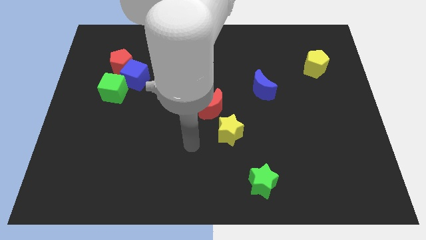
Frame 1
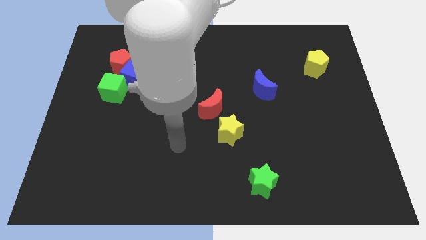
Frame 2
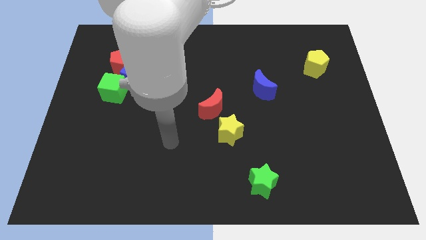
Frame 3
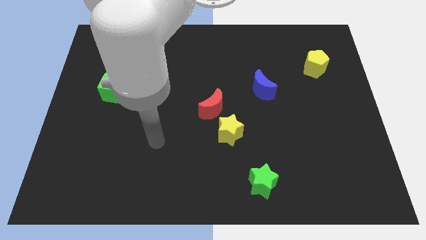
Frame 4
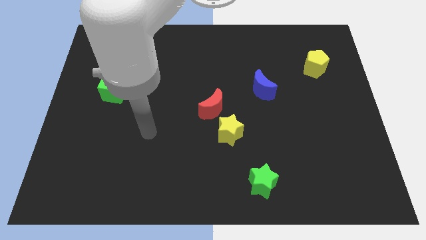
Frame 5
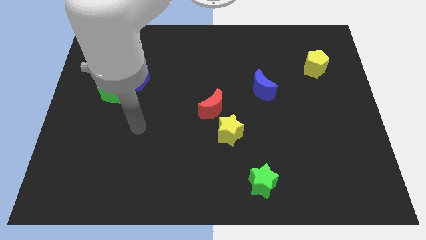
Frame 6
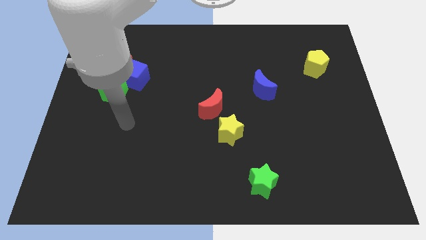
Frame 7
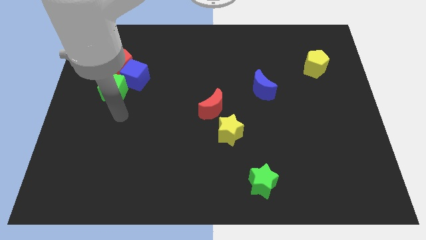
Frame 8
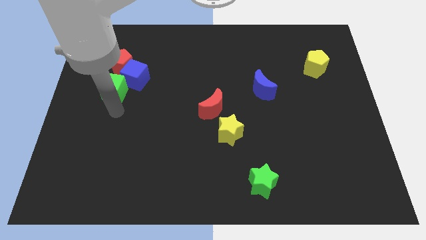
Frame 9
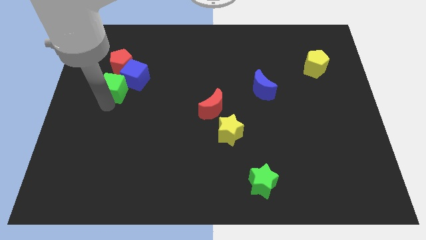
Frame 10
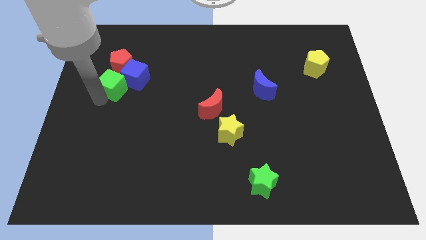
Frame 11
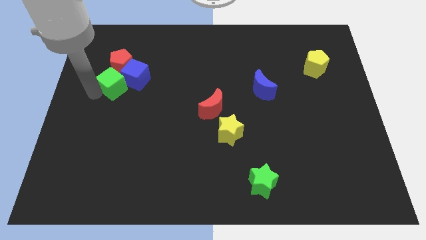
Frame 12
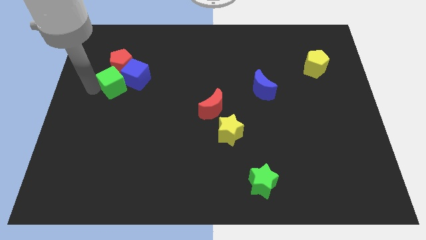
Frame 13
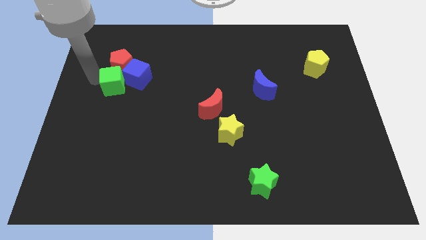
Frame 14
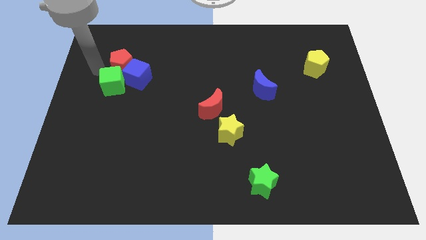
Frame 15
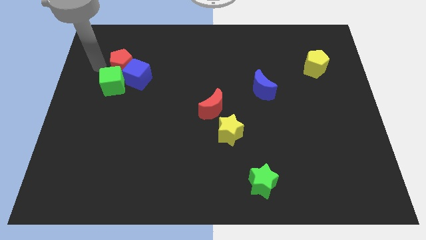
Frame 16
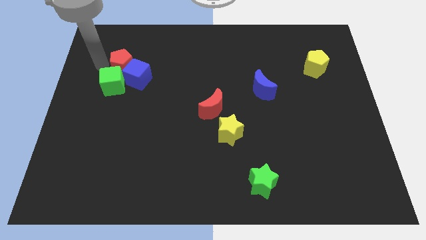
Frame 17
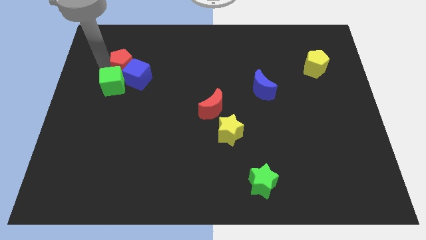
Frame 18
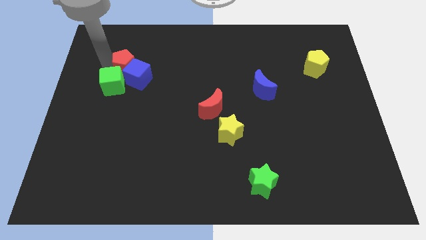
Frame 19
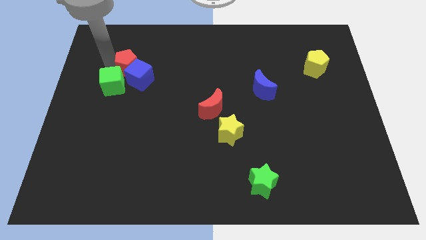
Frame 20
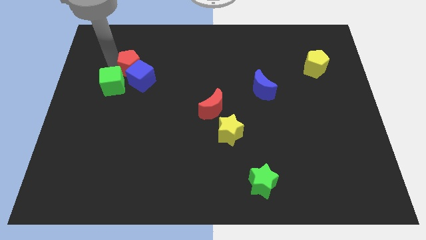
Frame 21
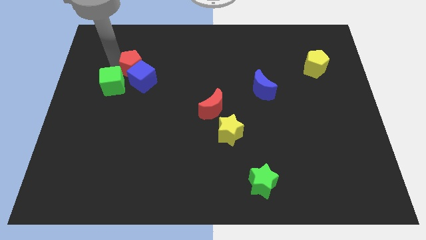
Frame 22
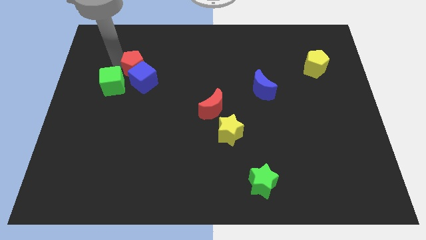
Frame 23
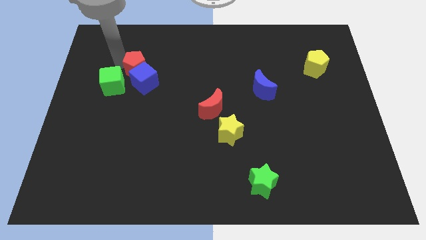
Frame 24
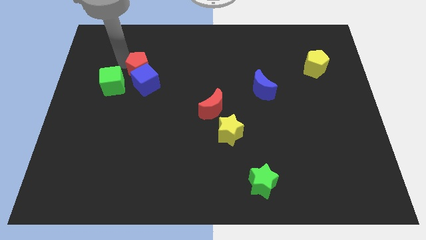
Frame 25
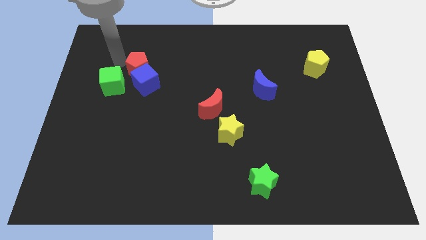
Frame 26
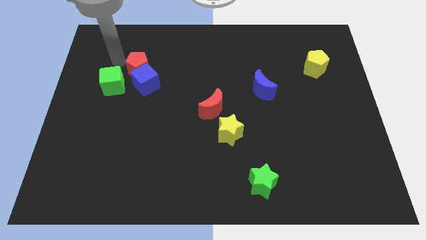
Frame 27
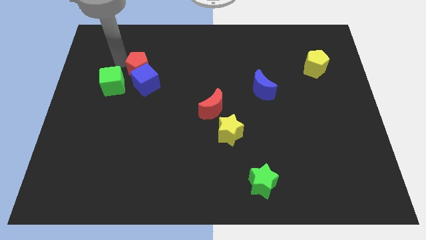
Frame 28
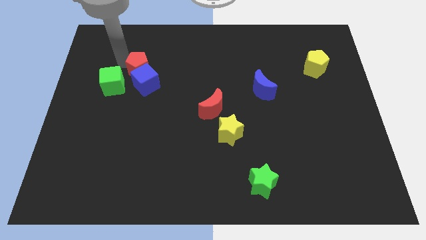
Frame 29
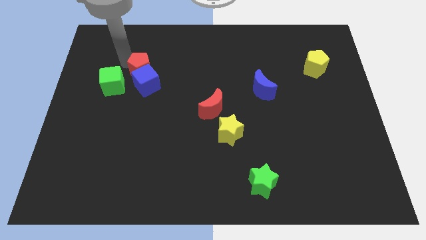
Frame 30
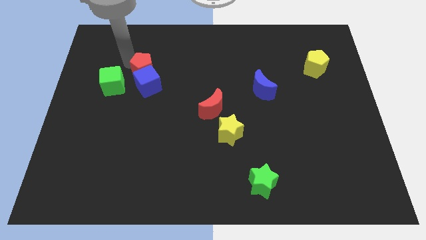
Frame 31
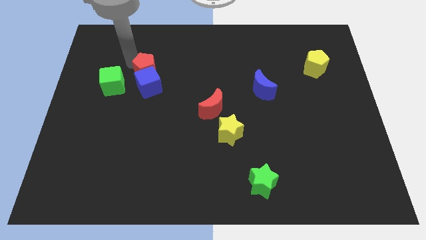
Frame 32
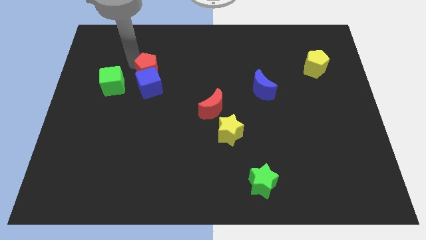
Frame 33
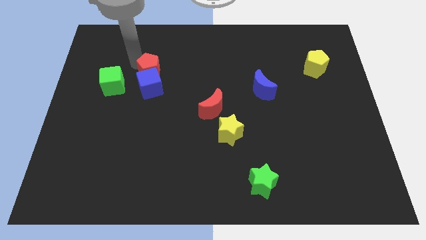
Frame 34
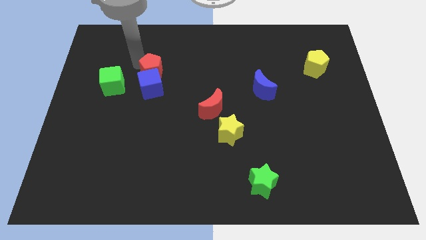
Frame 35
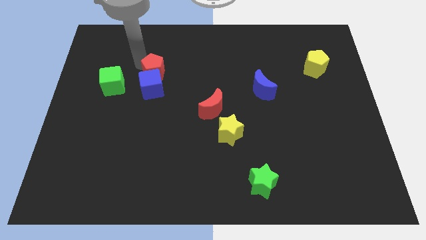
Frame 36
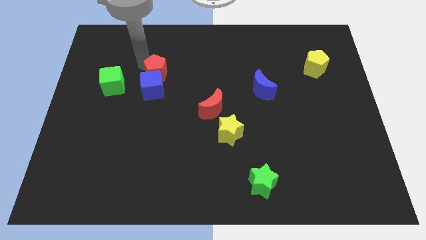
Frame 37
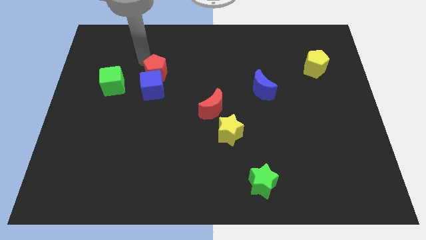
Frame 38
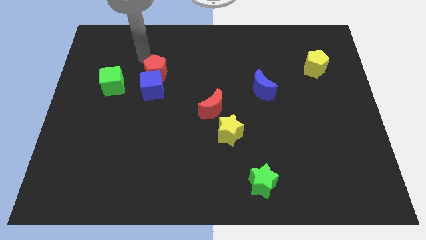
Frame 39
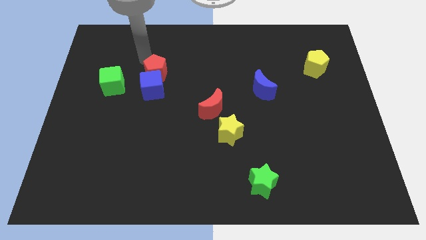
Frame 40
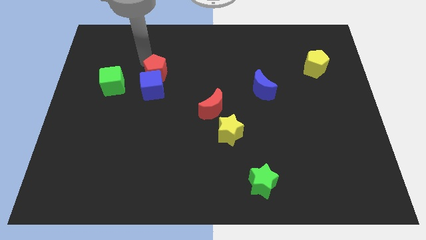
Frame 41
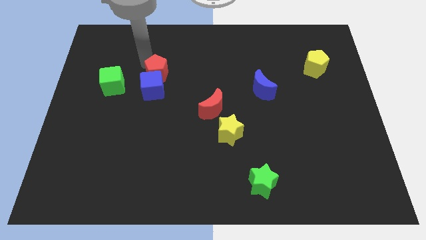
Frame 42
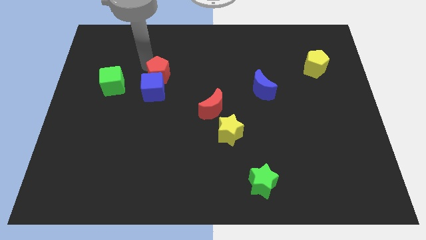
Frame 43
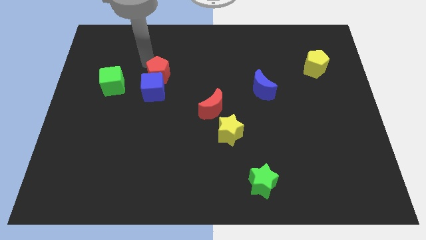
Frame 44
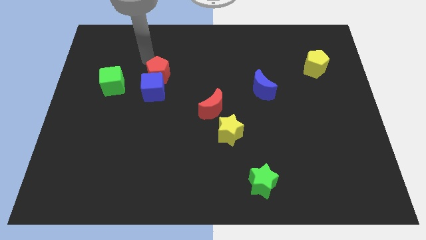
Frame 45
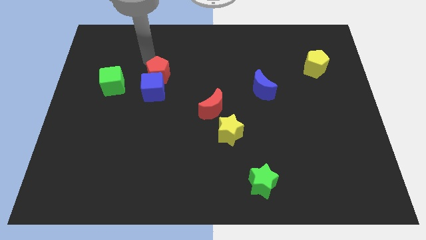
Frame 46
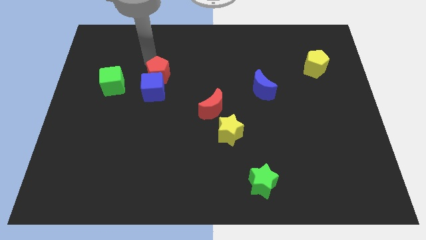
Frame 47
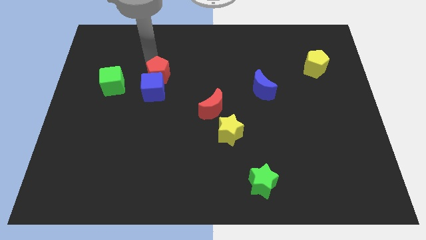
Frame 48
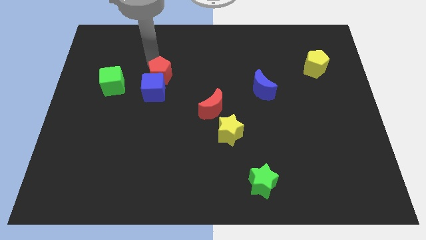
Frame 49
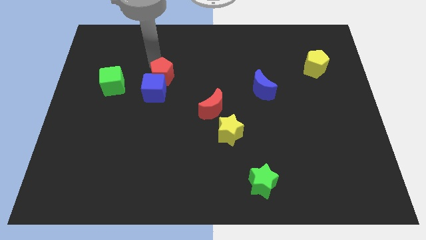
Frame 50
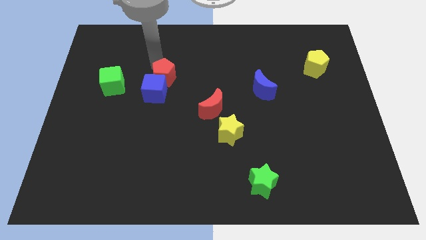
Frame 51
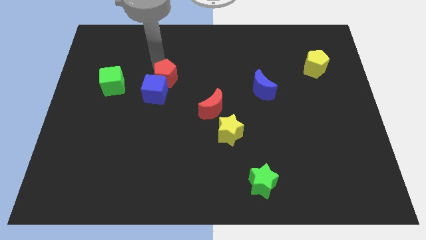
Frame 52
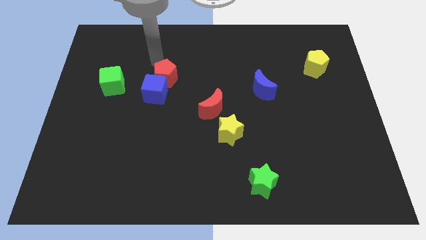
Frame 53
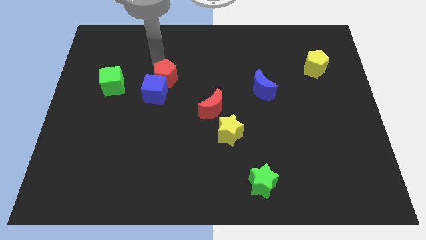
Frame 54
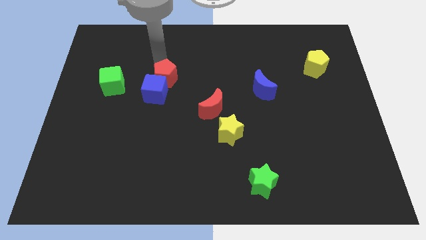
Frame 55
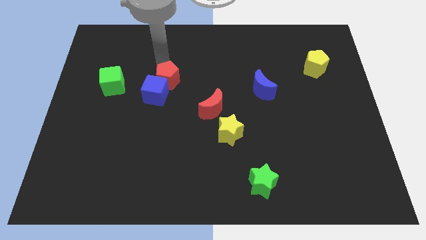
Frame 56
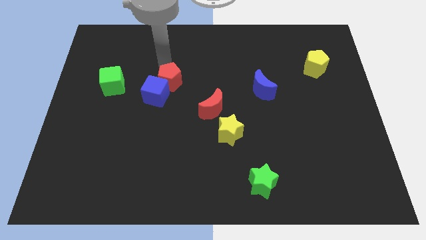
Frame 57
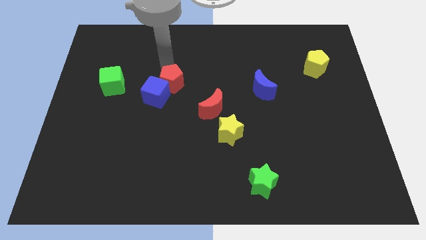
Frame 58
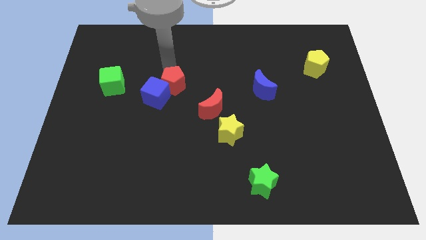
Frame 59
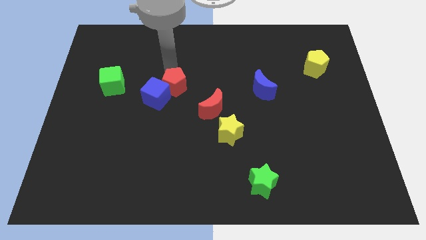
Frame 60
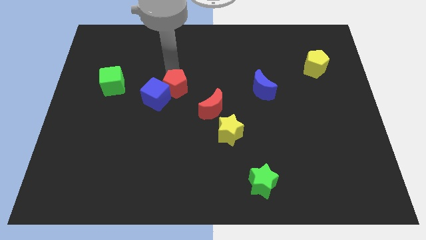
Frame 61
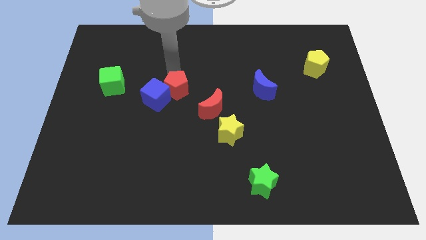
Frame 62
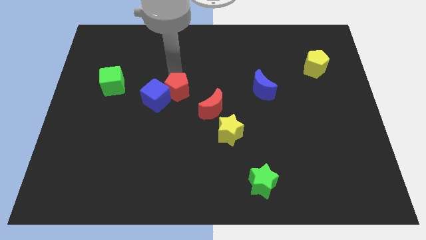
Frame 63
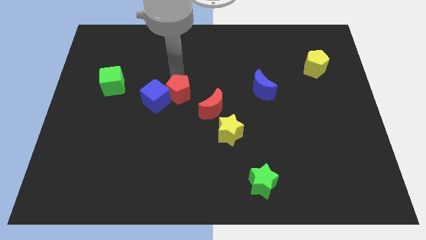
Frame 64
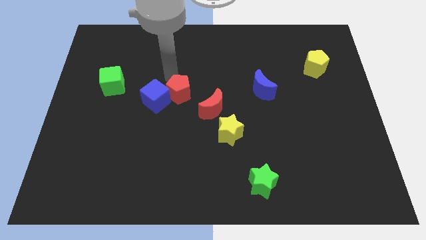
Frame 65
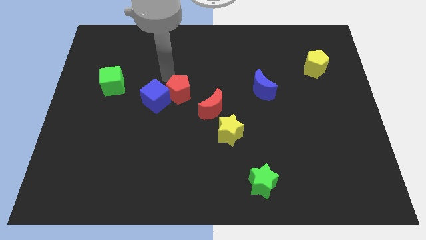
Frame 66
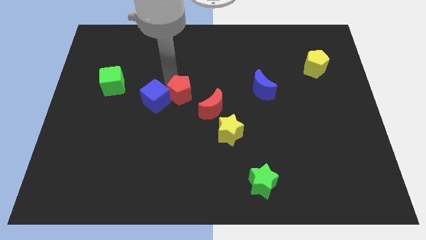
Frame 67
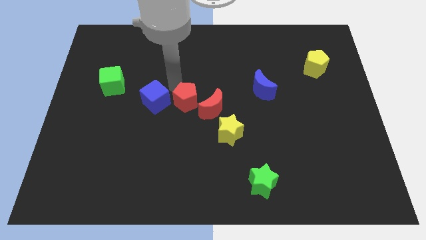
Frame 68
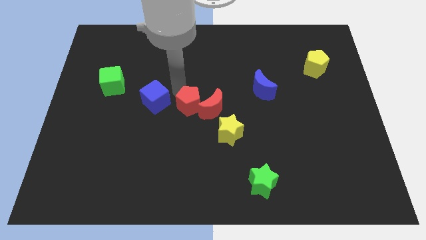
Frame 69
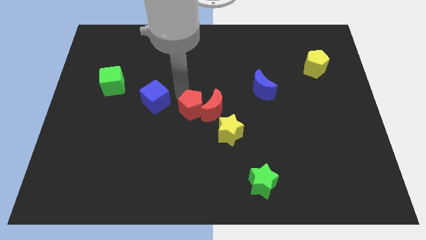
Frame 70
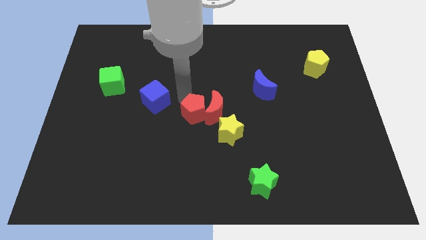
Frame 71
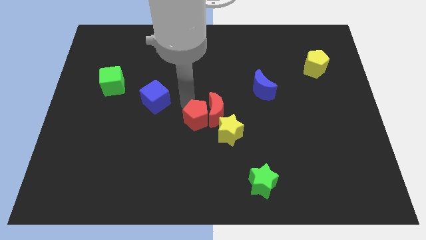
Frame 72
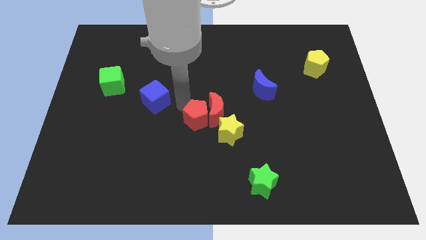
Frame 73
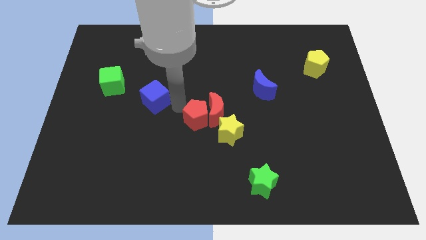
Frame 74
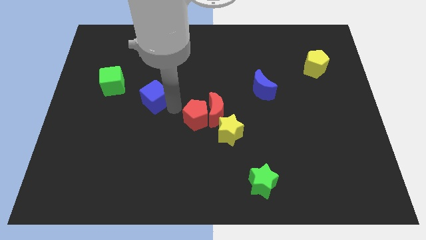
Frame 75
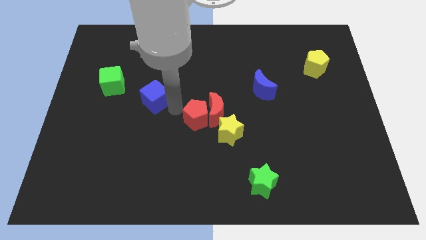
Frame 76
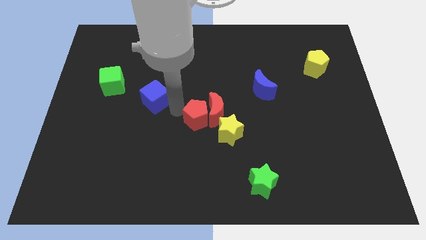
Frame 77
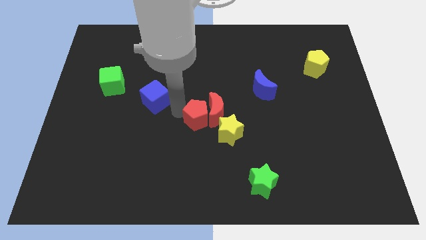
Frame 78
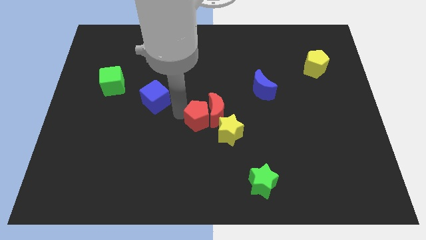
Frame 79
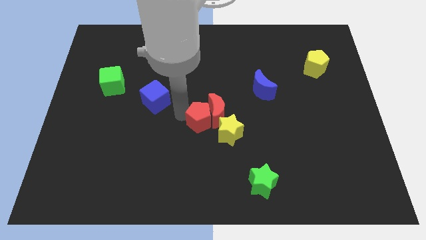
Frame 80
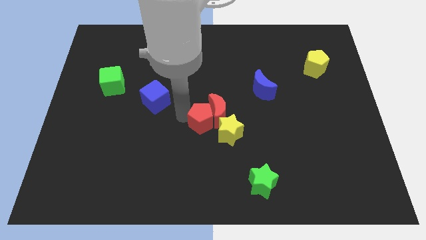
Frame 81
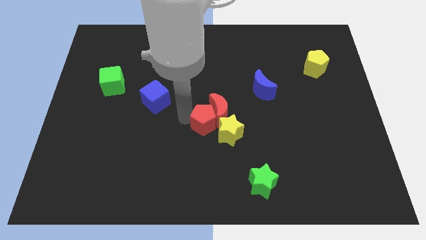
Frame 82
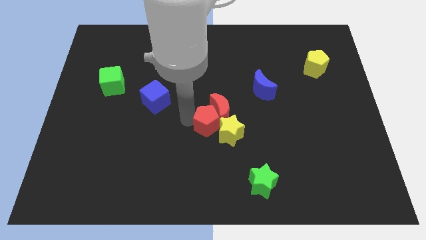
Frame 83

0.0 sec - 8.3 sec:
move the red pentagon to the yellow star
